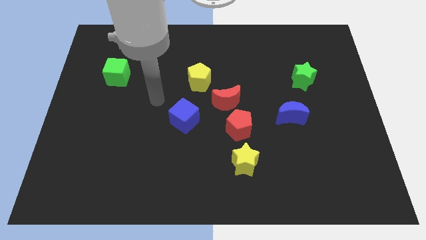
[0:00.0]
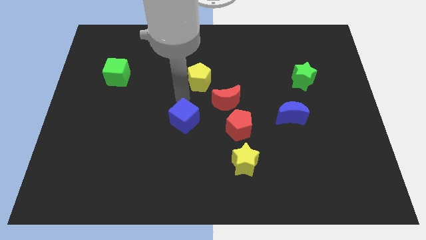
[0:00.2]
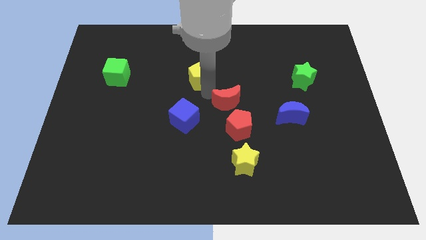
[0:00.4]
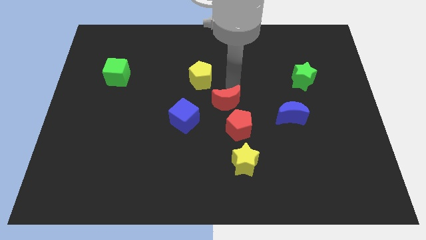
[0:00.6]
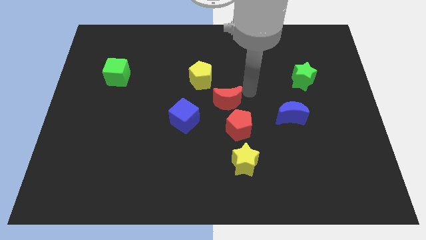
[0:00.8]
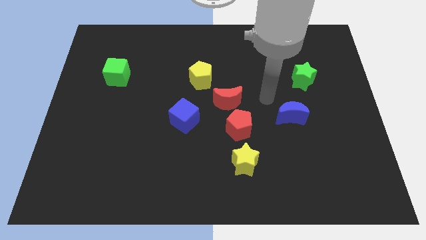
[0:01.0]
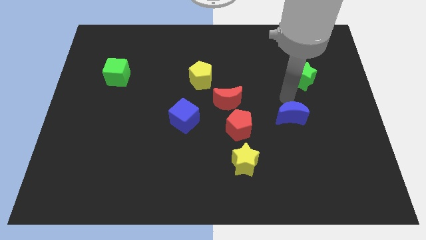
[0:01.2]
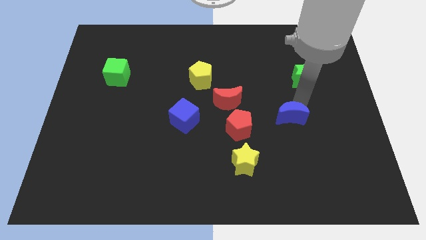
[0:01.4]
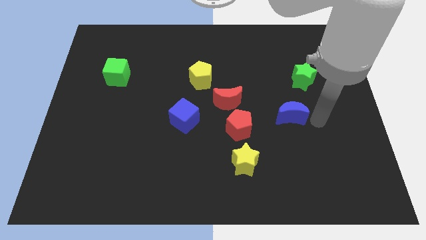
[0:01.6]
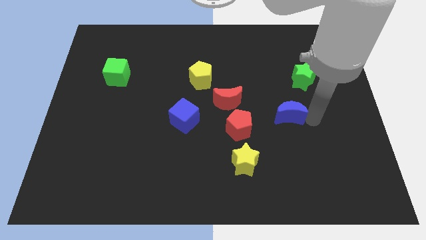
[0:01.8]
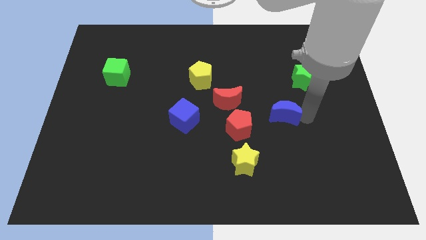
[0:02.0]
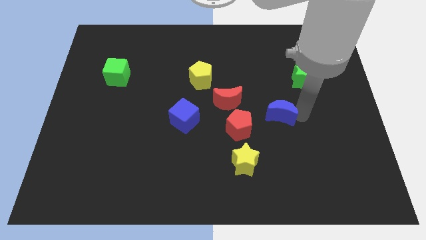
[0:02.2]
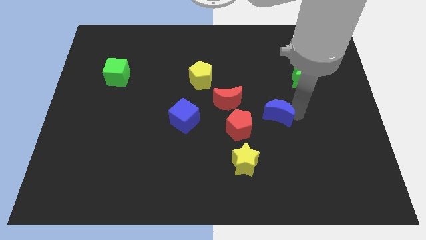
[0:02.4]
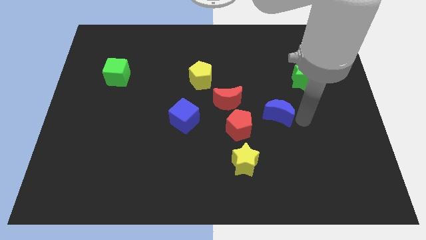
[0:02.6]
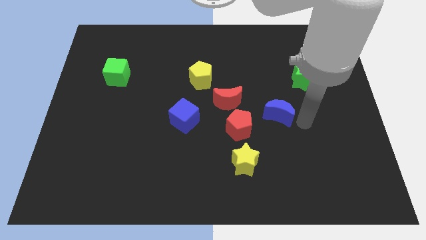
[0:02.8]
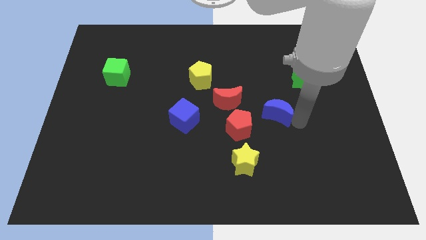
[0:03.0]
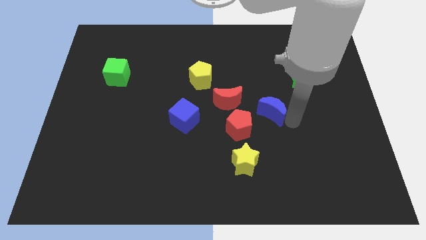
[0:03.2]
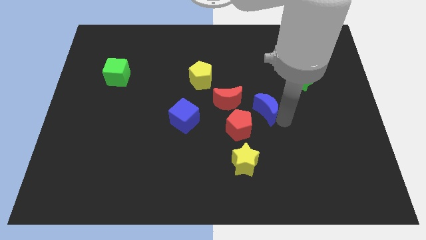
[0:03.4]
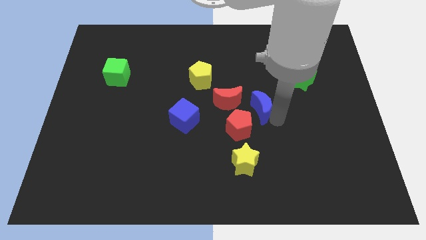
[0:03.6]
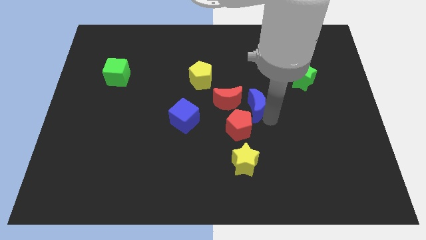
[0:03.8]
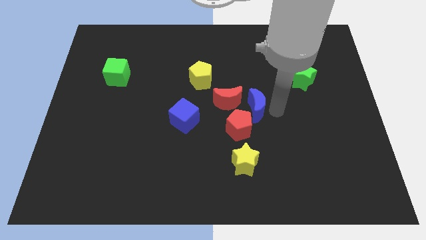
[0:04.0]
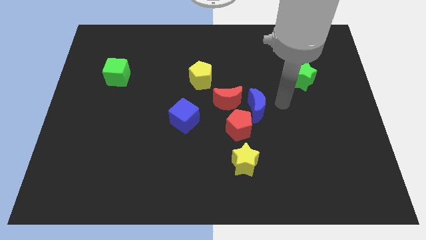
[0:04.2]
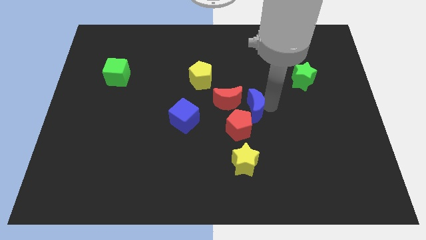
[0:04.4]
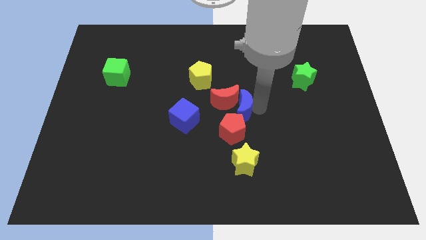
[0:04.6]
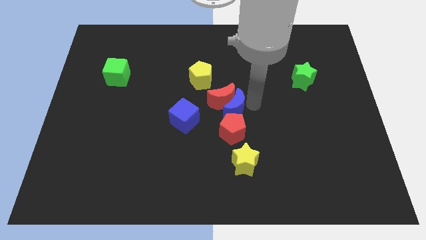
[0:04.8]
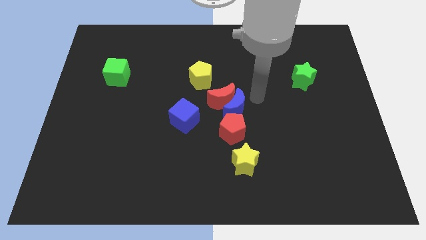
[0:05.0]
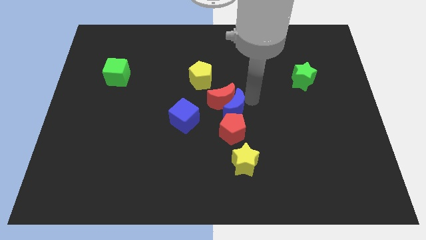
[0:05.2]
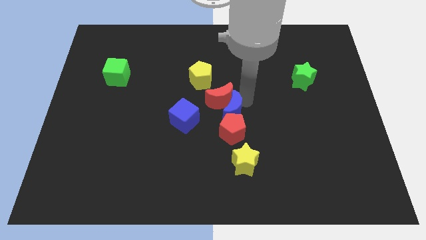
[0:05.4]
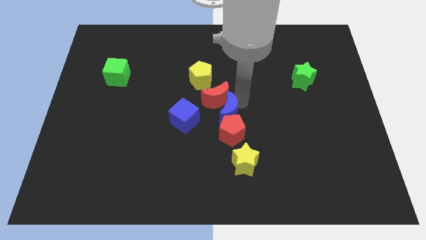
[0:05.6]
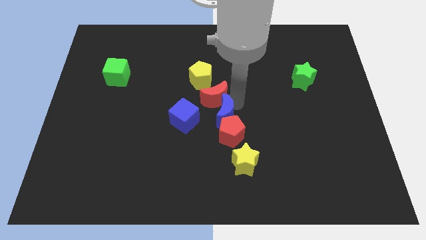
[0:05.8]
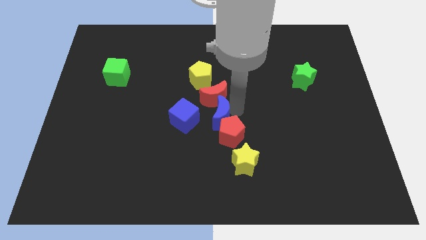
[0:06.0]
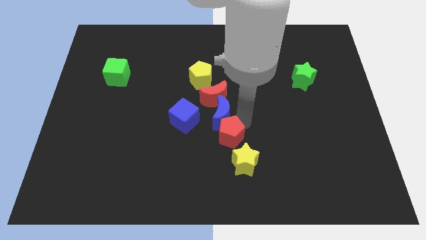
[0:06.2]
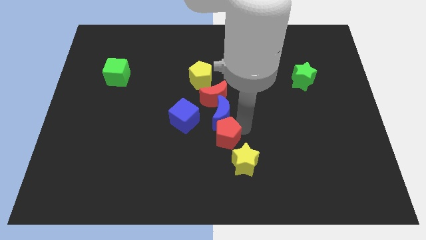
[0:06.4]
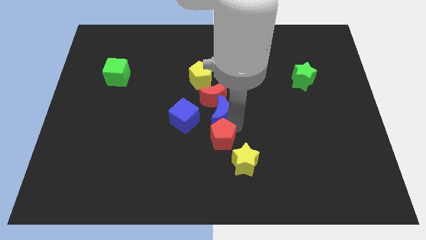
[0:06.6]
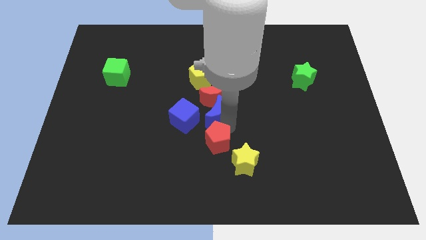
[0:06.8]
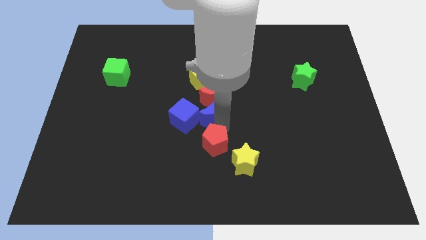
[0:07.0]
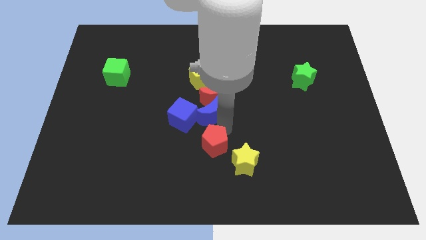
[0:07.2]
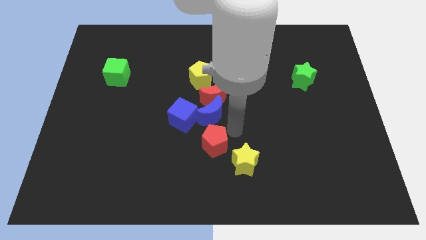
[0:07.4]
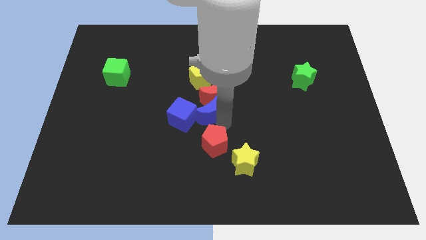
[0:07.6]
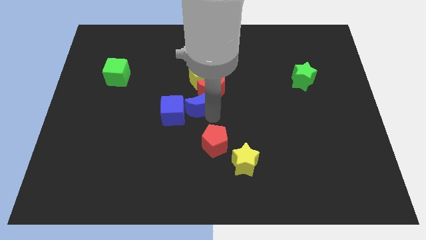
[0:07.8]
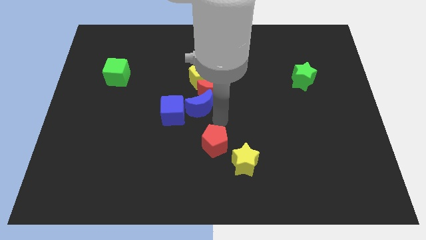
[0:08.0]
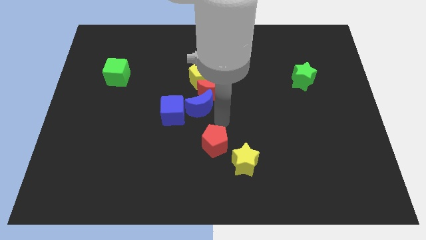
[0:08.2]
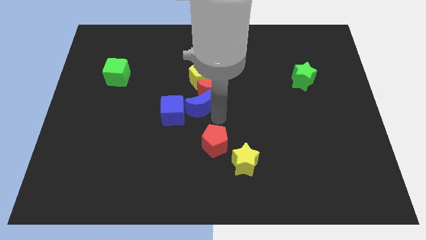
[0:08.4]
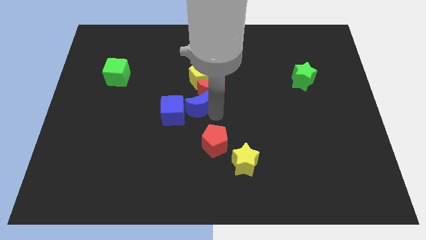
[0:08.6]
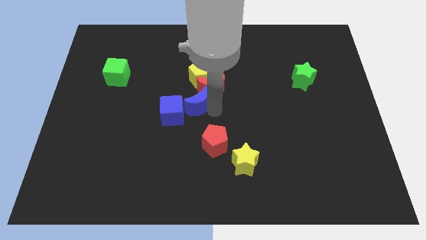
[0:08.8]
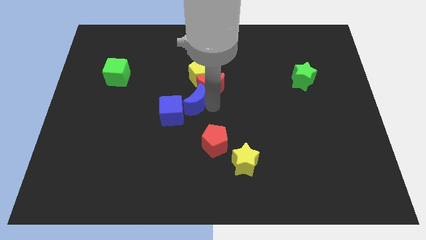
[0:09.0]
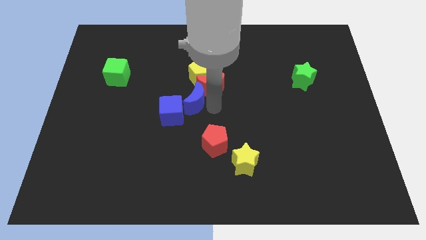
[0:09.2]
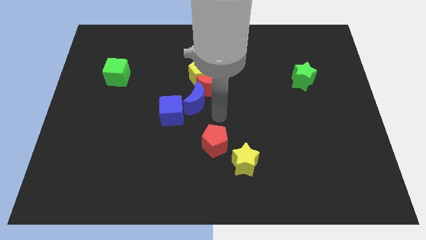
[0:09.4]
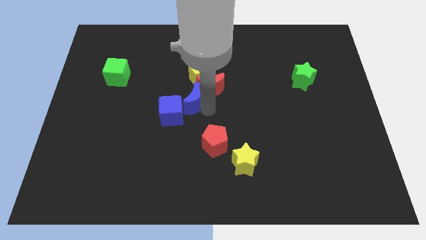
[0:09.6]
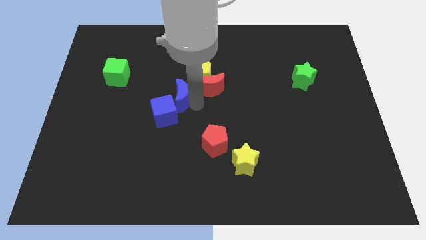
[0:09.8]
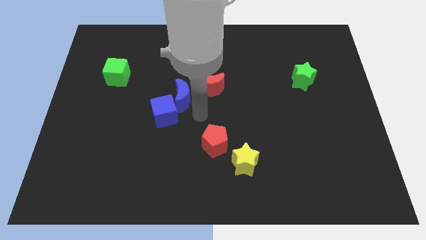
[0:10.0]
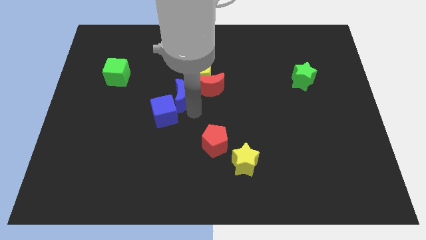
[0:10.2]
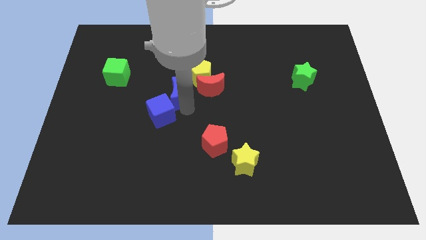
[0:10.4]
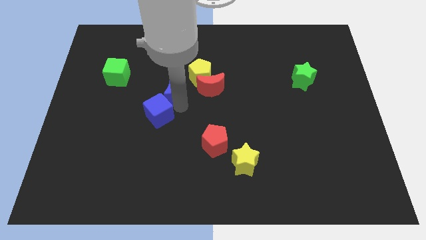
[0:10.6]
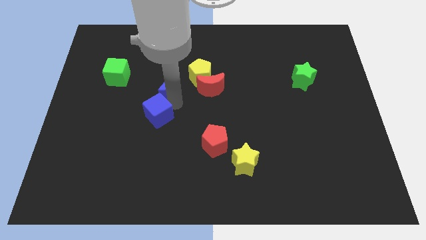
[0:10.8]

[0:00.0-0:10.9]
slide the blue moon left of the yellow pentagon

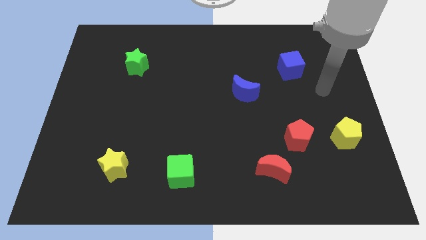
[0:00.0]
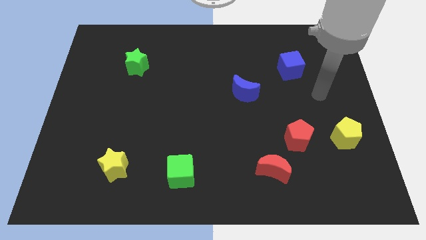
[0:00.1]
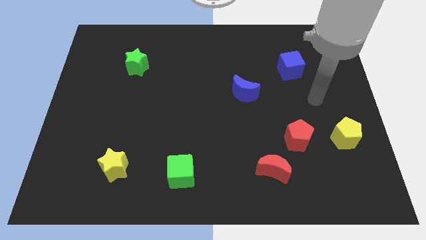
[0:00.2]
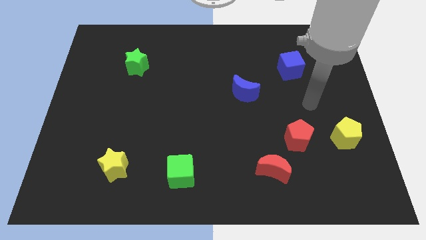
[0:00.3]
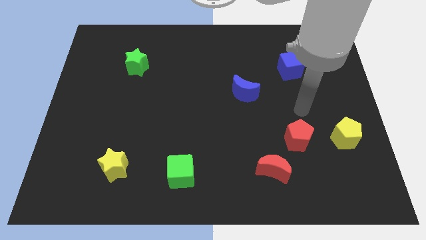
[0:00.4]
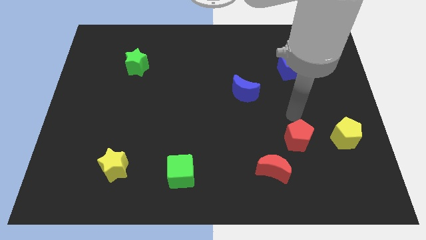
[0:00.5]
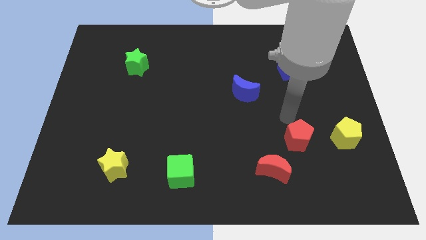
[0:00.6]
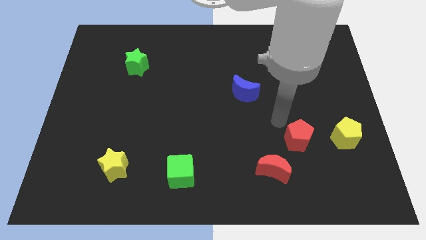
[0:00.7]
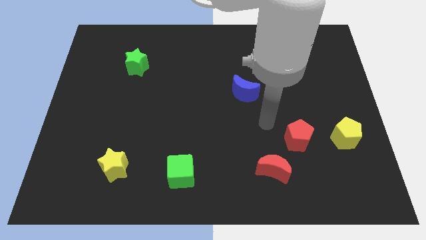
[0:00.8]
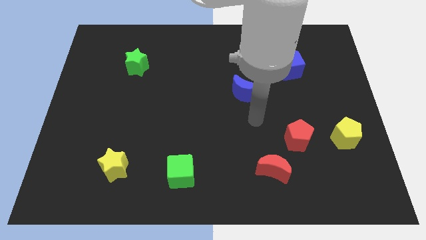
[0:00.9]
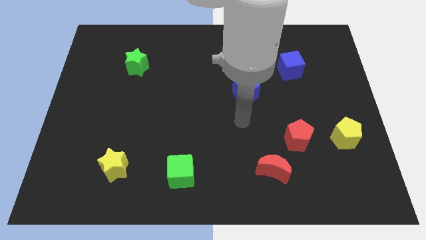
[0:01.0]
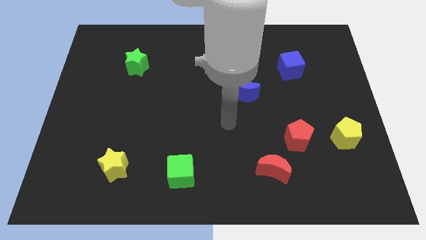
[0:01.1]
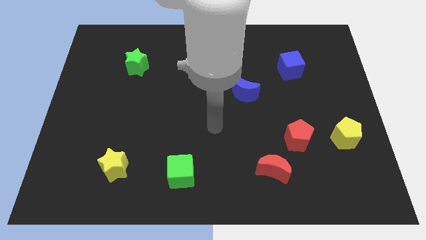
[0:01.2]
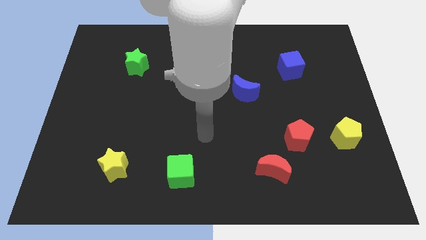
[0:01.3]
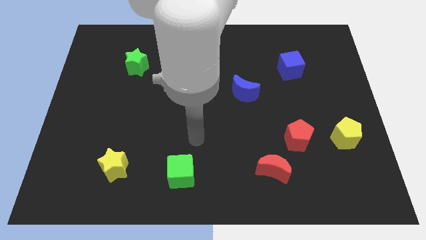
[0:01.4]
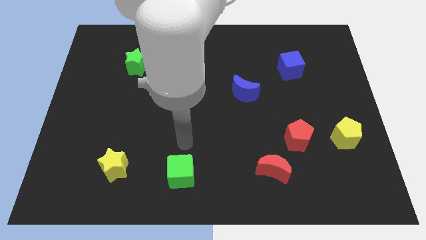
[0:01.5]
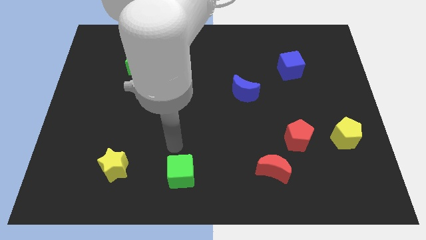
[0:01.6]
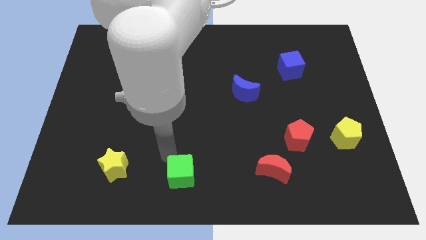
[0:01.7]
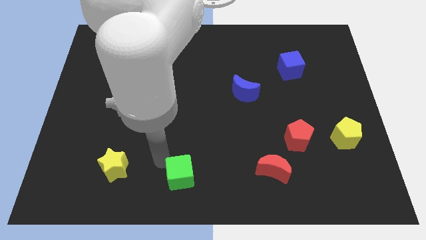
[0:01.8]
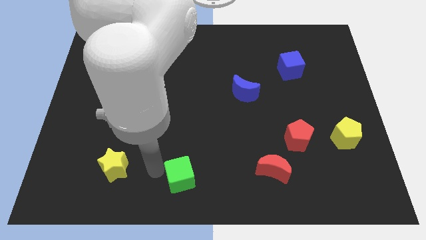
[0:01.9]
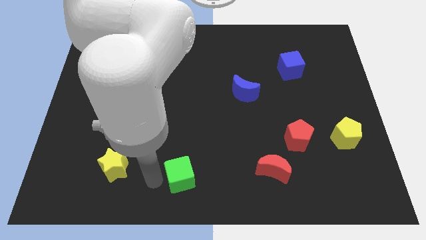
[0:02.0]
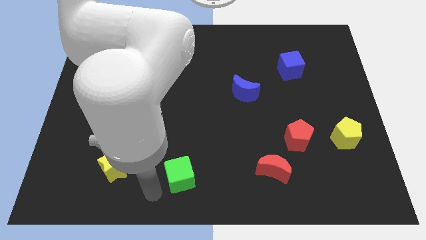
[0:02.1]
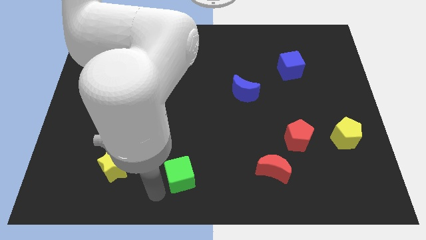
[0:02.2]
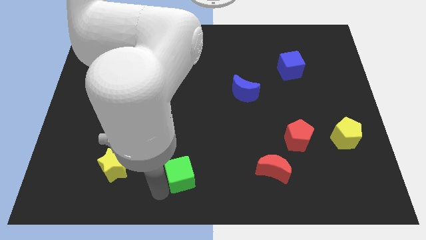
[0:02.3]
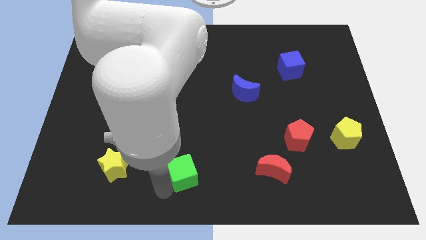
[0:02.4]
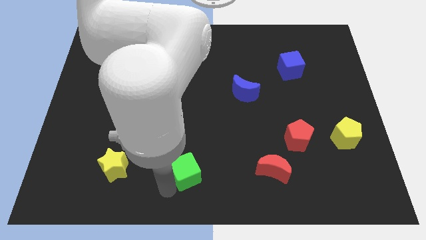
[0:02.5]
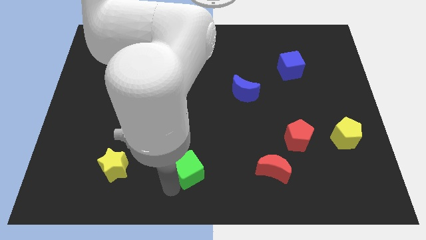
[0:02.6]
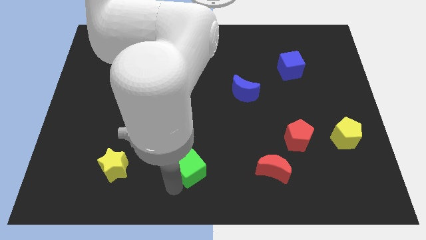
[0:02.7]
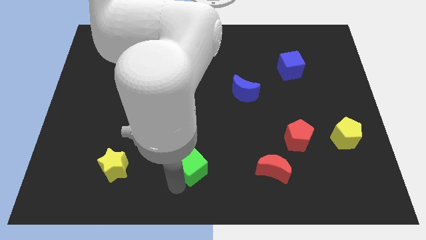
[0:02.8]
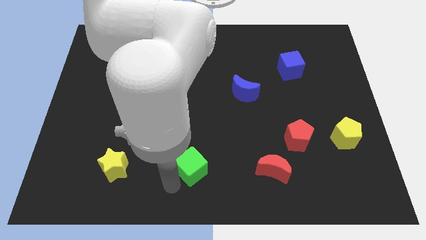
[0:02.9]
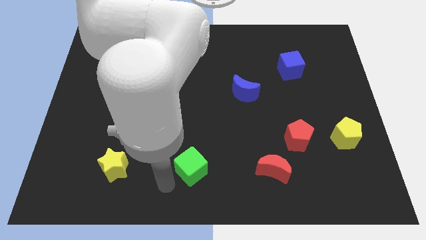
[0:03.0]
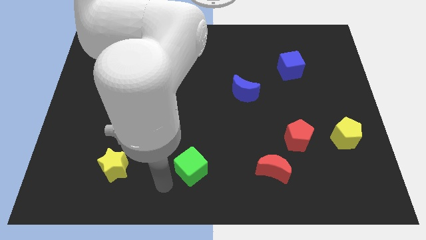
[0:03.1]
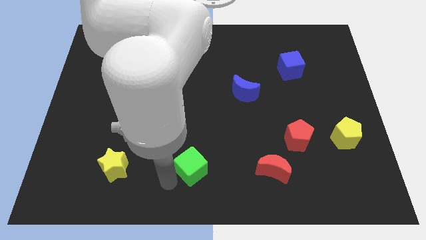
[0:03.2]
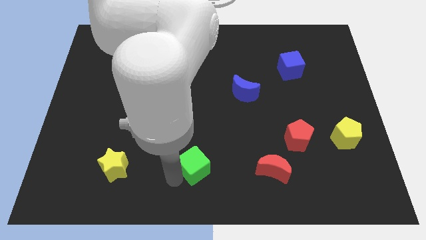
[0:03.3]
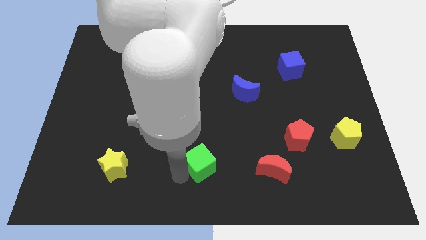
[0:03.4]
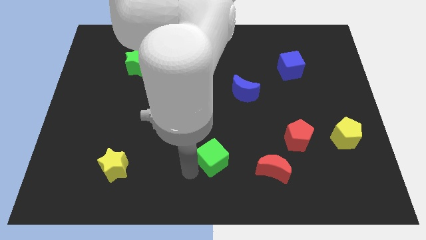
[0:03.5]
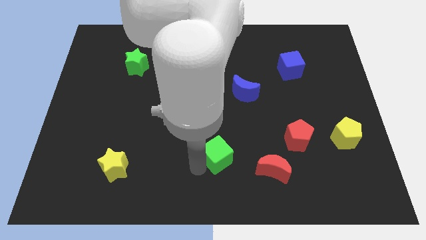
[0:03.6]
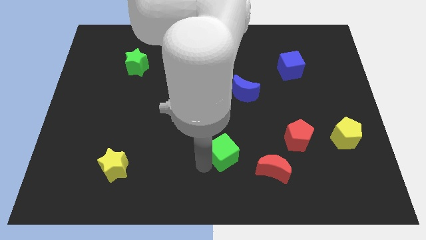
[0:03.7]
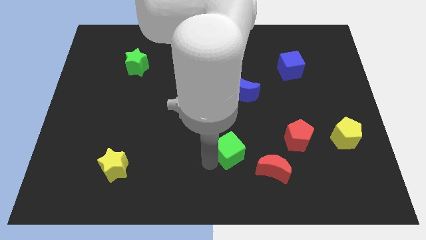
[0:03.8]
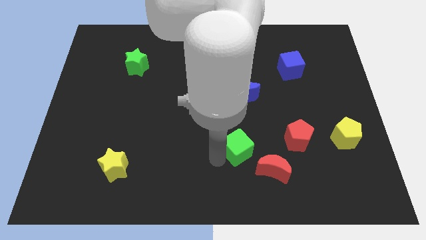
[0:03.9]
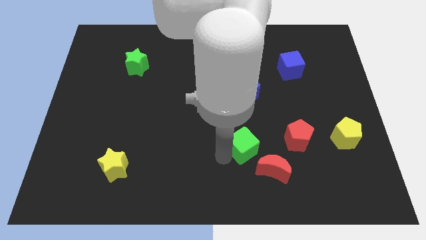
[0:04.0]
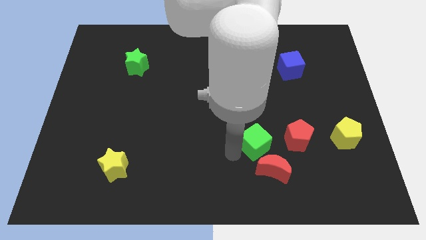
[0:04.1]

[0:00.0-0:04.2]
move the green cube to the top side of the red moon
